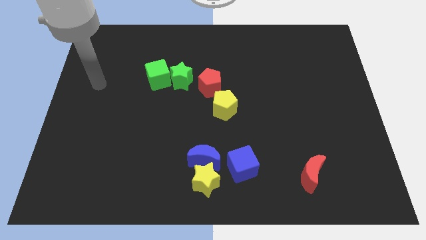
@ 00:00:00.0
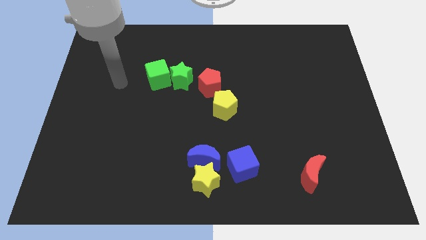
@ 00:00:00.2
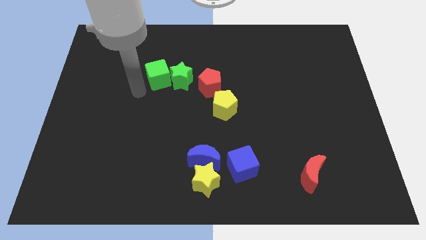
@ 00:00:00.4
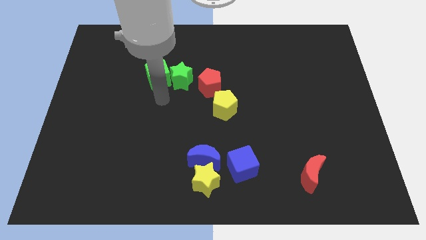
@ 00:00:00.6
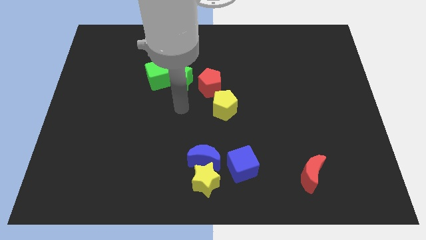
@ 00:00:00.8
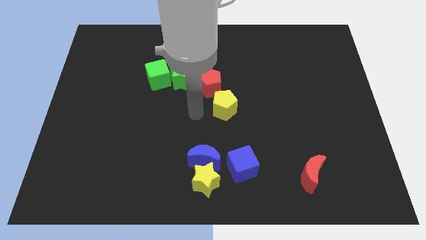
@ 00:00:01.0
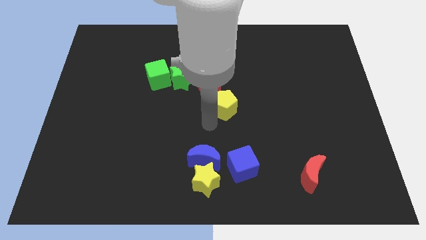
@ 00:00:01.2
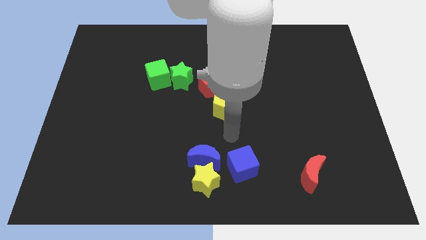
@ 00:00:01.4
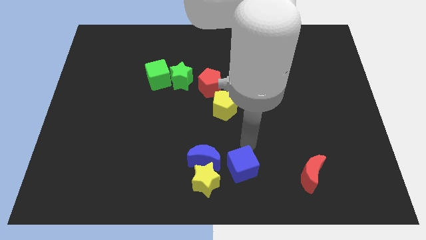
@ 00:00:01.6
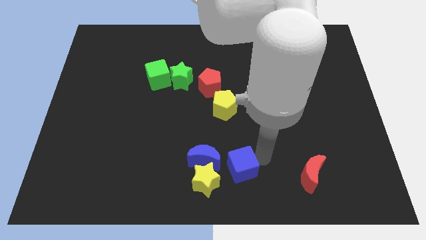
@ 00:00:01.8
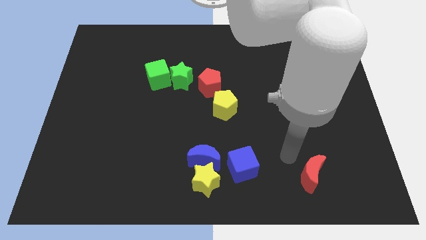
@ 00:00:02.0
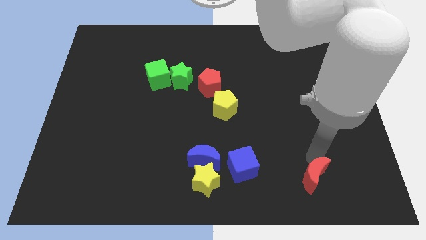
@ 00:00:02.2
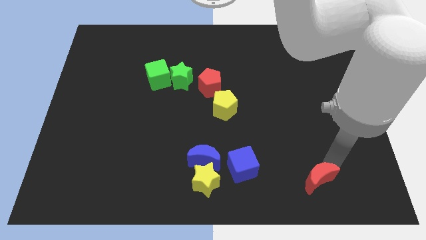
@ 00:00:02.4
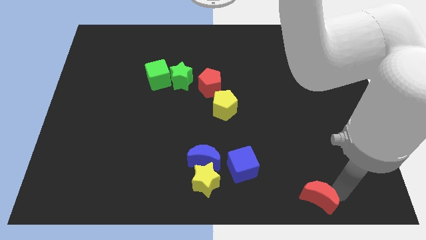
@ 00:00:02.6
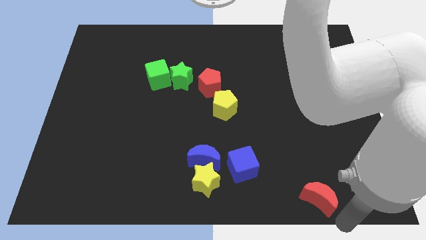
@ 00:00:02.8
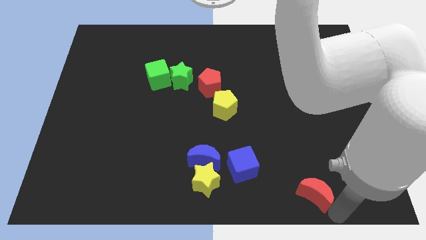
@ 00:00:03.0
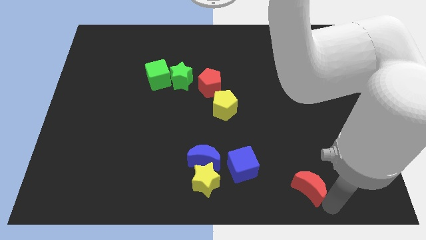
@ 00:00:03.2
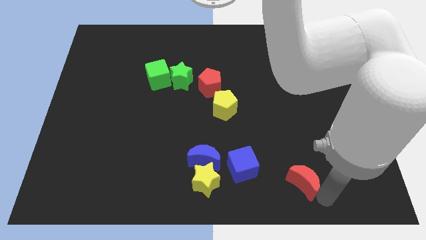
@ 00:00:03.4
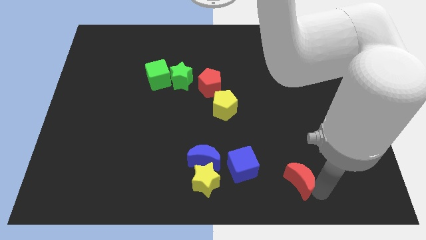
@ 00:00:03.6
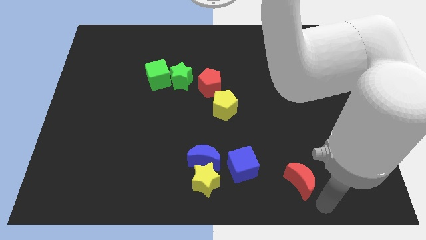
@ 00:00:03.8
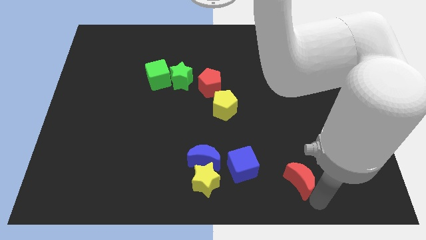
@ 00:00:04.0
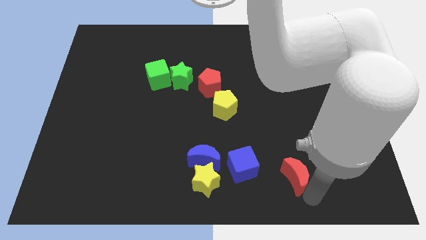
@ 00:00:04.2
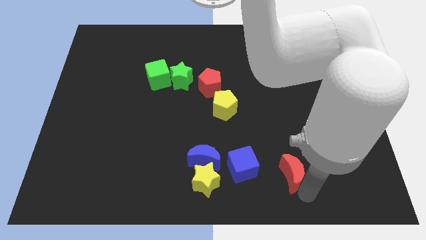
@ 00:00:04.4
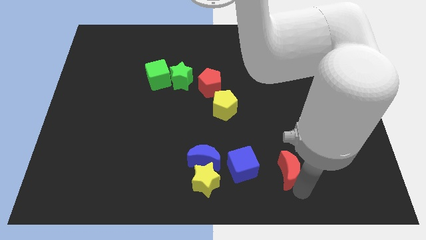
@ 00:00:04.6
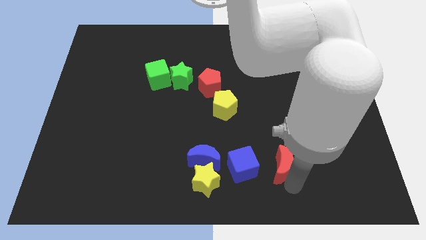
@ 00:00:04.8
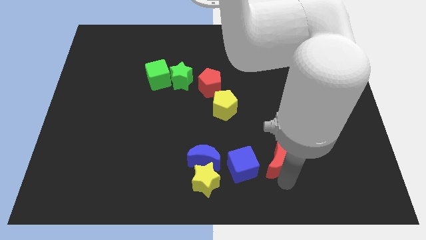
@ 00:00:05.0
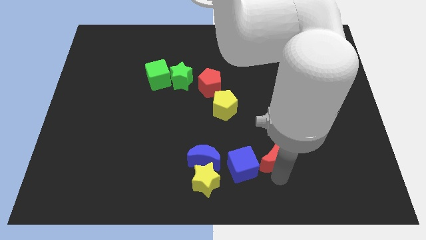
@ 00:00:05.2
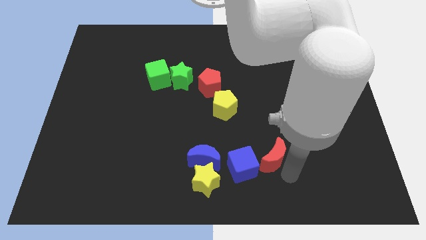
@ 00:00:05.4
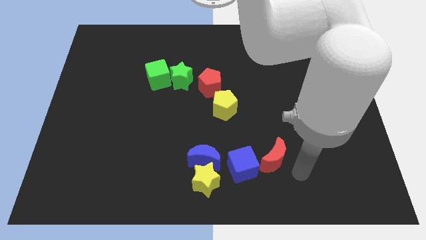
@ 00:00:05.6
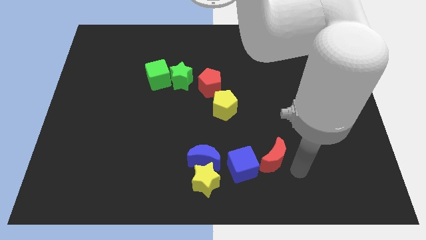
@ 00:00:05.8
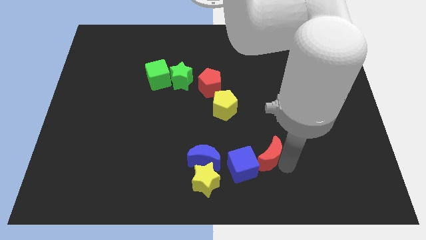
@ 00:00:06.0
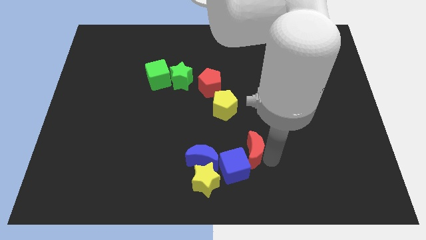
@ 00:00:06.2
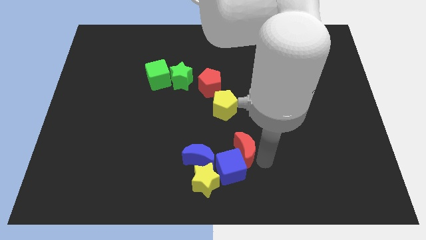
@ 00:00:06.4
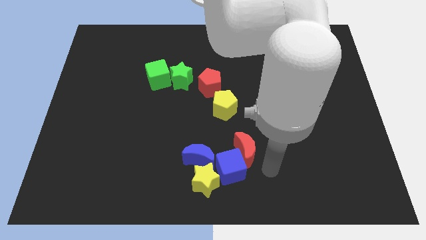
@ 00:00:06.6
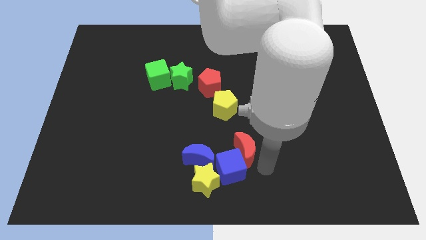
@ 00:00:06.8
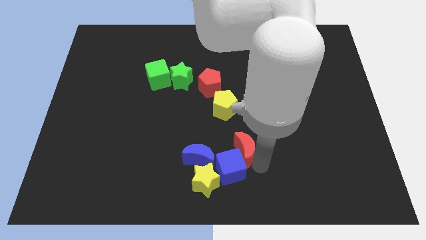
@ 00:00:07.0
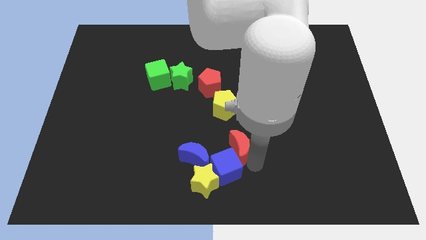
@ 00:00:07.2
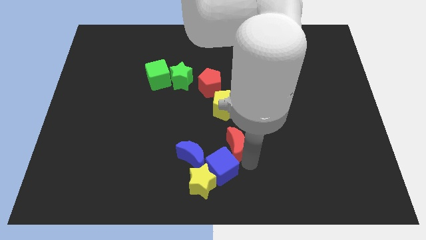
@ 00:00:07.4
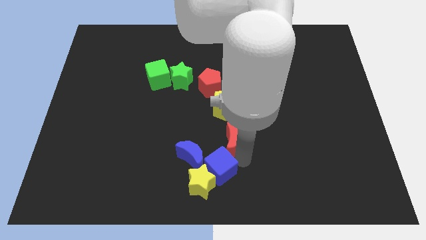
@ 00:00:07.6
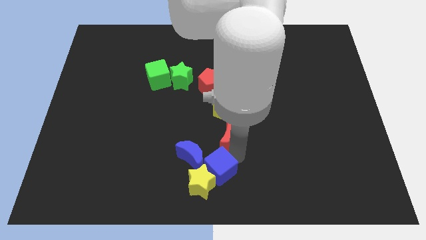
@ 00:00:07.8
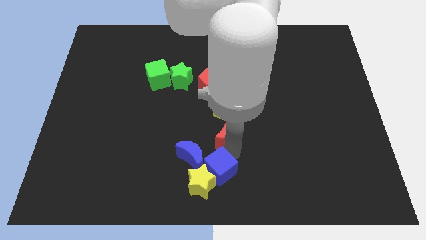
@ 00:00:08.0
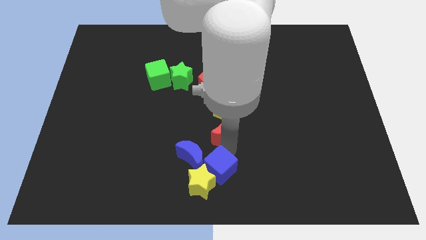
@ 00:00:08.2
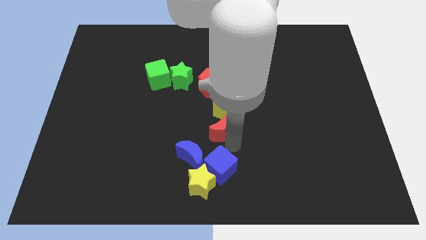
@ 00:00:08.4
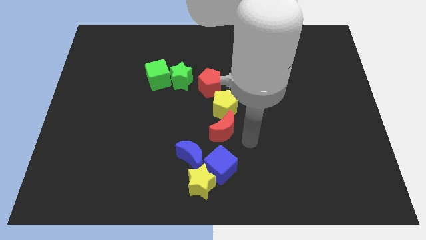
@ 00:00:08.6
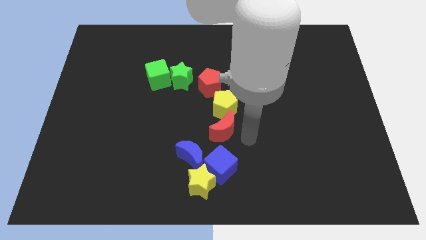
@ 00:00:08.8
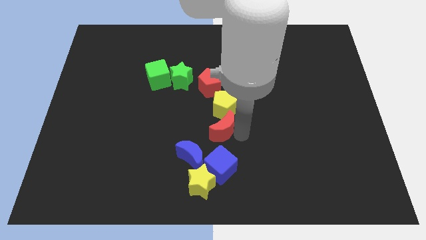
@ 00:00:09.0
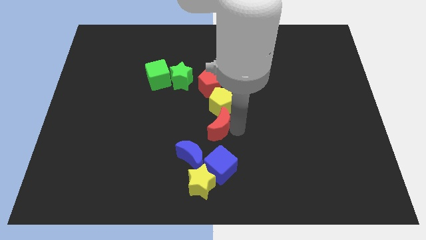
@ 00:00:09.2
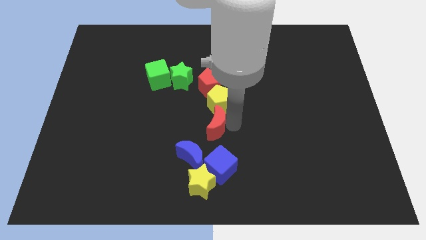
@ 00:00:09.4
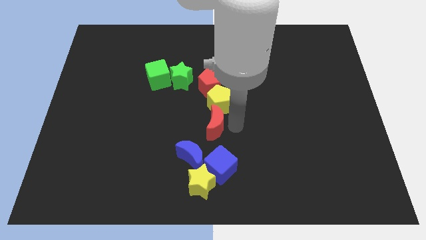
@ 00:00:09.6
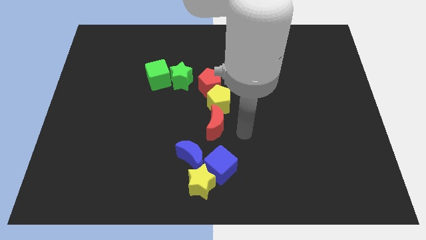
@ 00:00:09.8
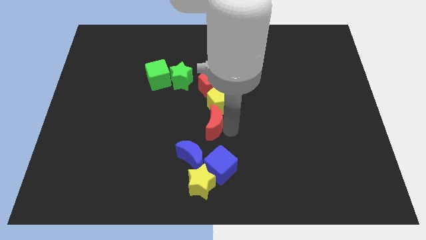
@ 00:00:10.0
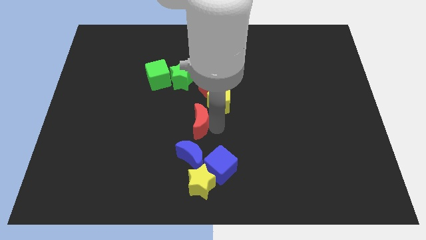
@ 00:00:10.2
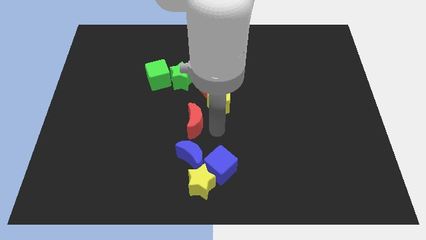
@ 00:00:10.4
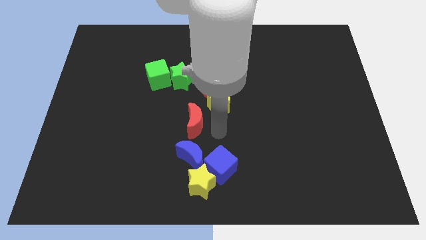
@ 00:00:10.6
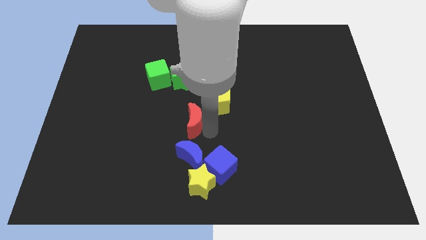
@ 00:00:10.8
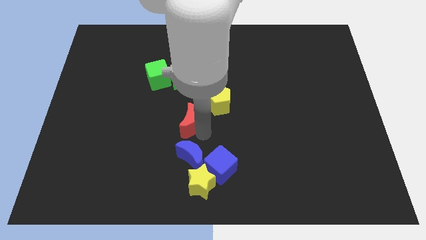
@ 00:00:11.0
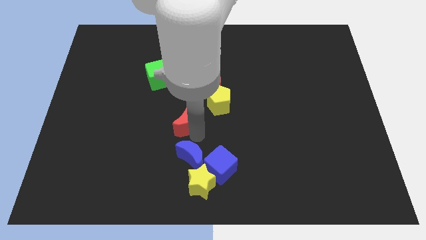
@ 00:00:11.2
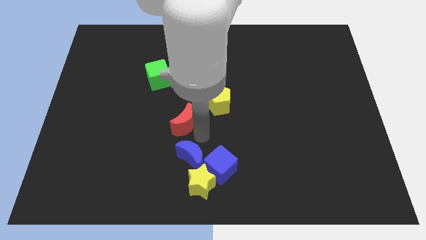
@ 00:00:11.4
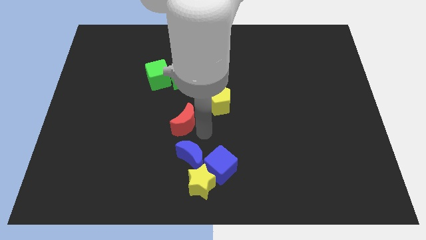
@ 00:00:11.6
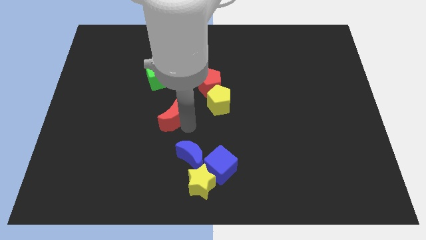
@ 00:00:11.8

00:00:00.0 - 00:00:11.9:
move the red moon to the bottom of the green cube

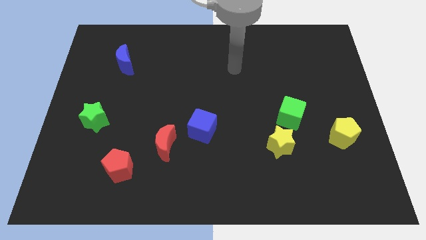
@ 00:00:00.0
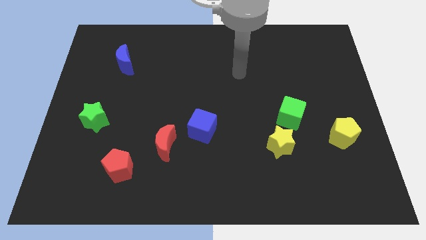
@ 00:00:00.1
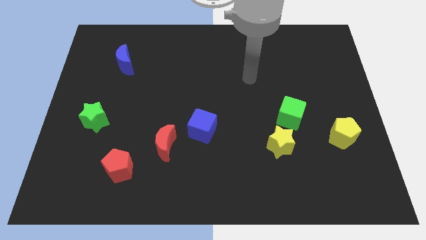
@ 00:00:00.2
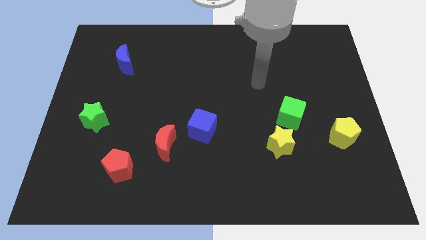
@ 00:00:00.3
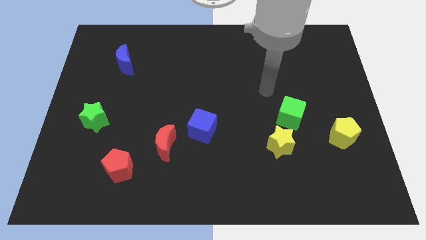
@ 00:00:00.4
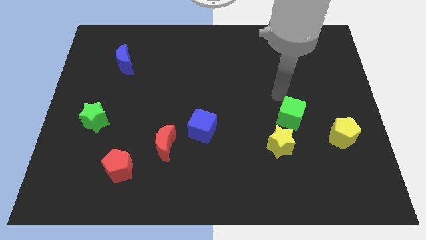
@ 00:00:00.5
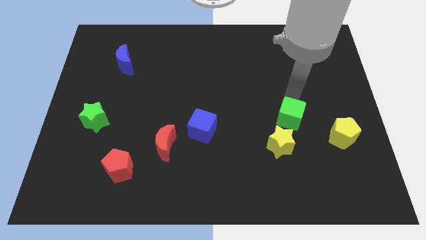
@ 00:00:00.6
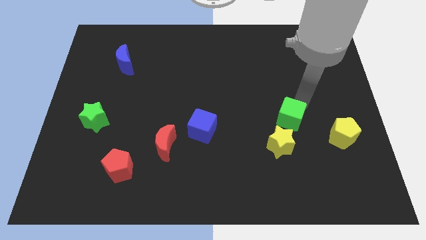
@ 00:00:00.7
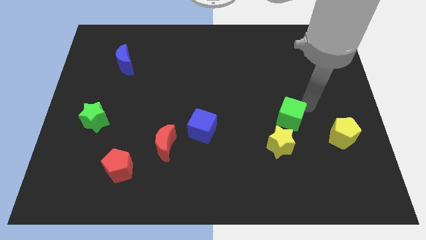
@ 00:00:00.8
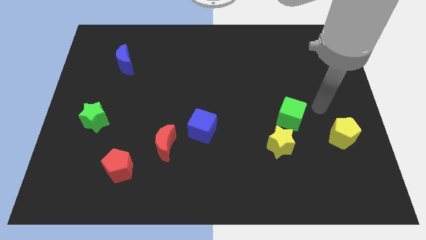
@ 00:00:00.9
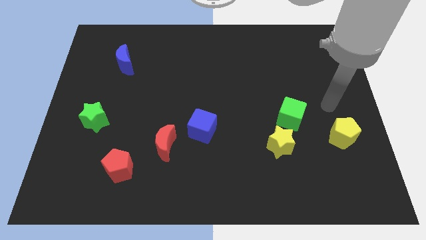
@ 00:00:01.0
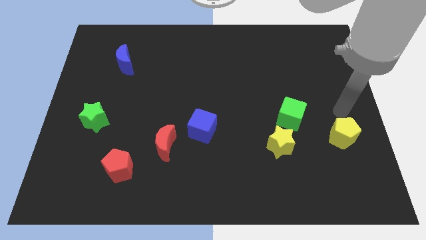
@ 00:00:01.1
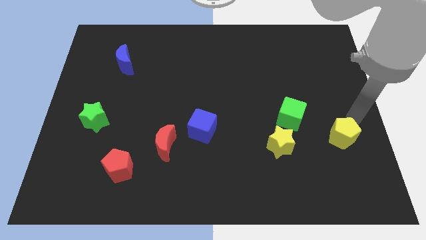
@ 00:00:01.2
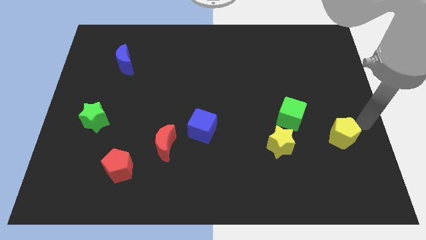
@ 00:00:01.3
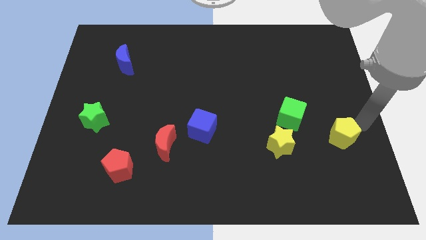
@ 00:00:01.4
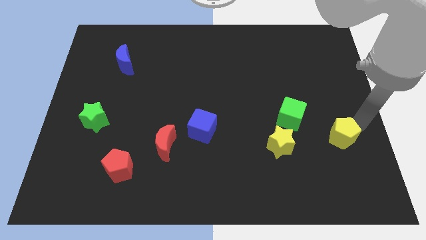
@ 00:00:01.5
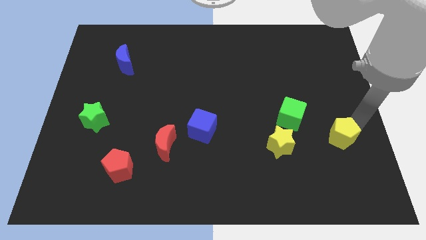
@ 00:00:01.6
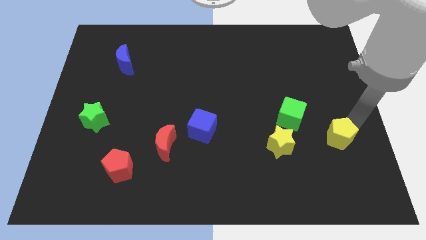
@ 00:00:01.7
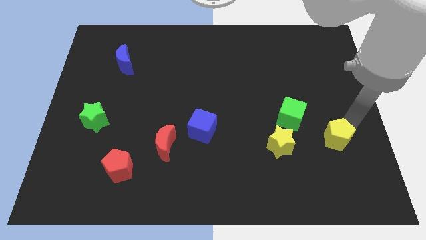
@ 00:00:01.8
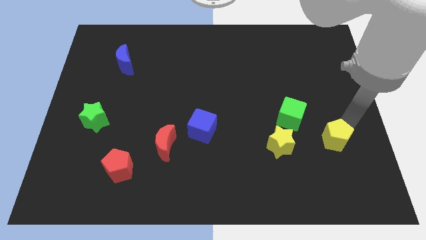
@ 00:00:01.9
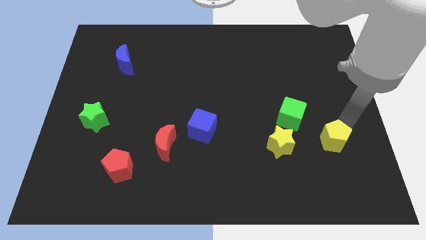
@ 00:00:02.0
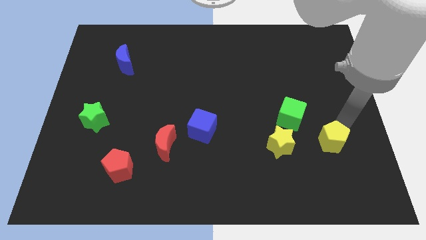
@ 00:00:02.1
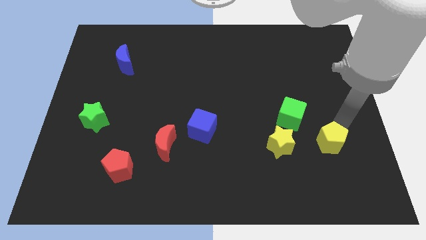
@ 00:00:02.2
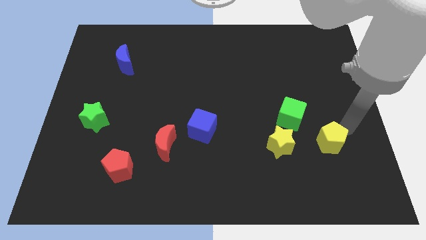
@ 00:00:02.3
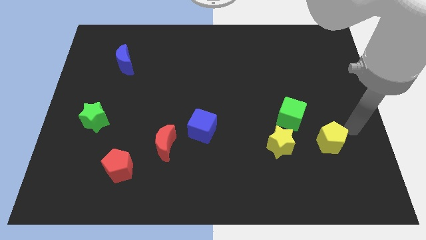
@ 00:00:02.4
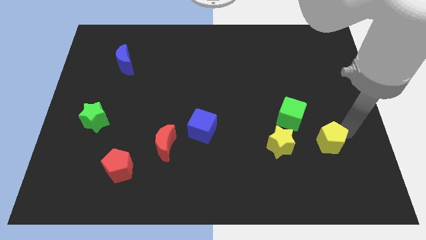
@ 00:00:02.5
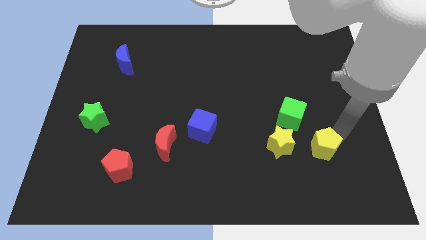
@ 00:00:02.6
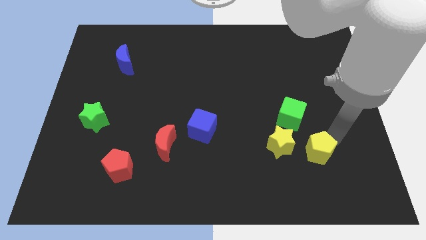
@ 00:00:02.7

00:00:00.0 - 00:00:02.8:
put the yellow pentagon below the green cube
